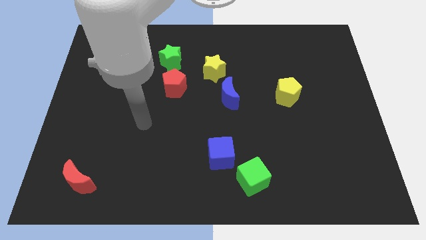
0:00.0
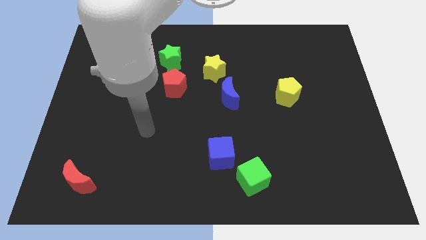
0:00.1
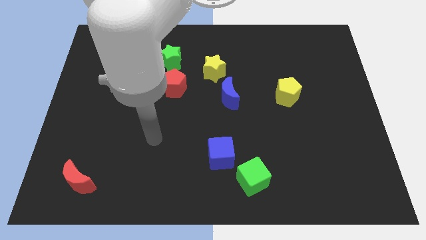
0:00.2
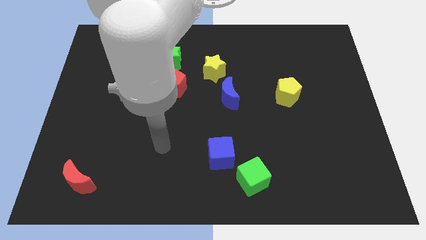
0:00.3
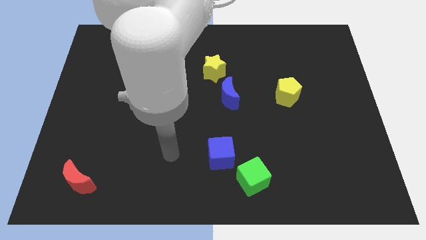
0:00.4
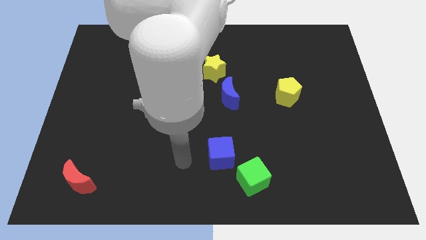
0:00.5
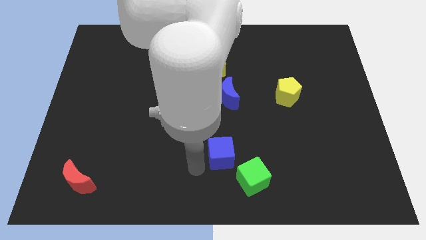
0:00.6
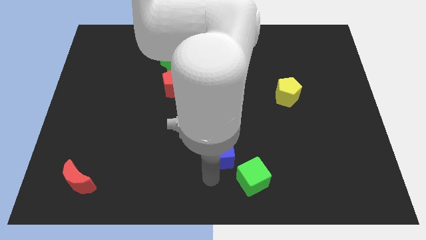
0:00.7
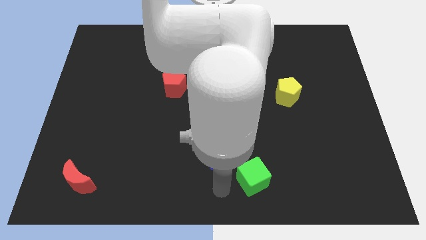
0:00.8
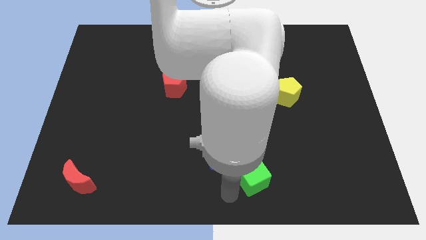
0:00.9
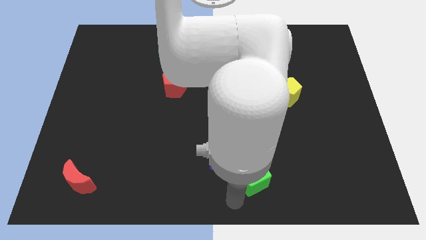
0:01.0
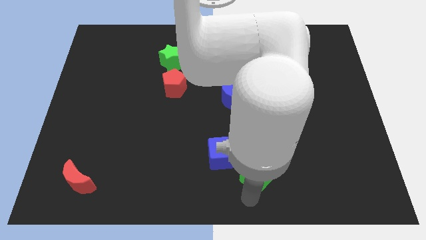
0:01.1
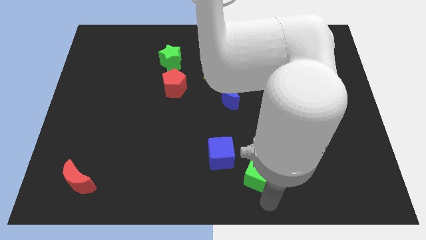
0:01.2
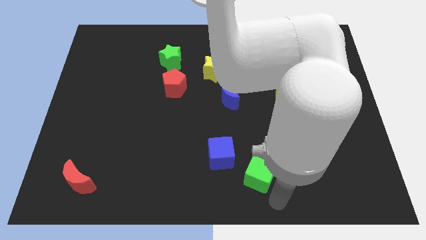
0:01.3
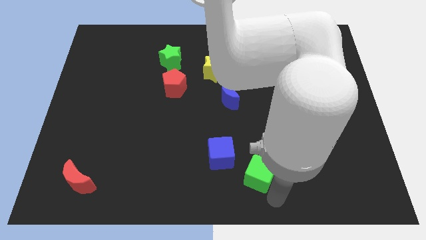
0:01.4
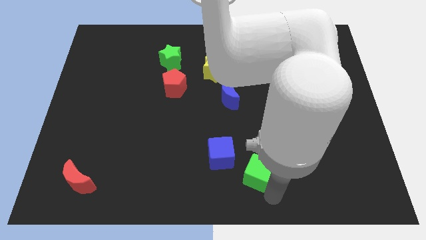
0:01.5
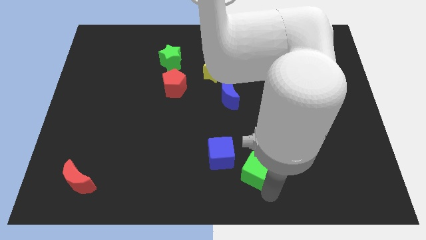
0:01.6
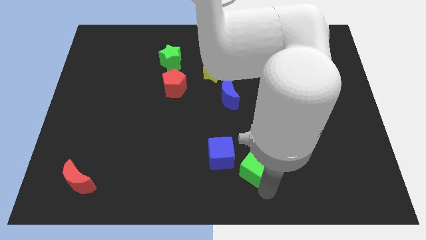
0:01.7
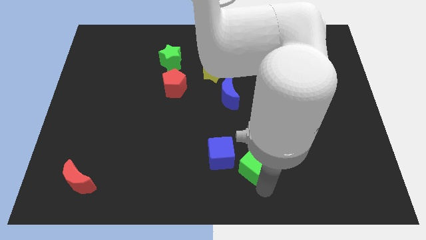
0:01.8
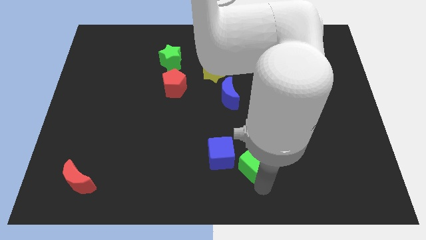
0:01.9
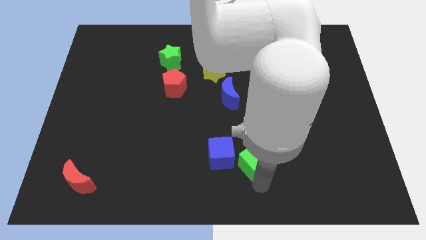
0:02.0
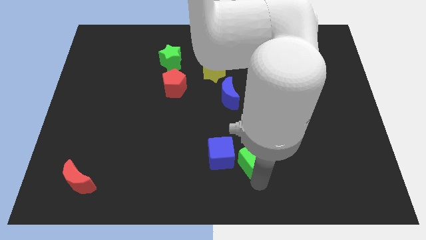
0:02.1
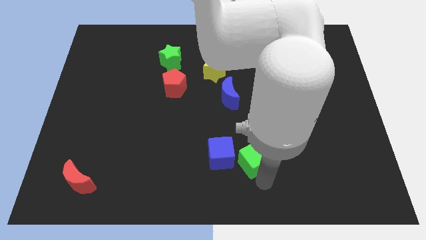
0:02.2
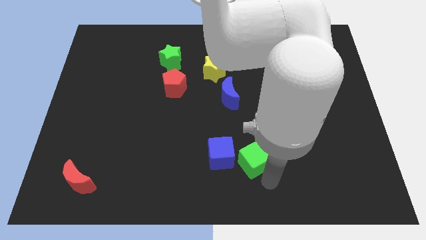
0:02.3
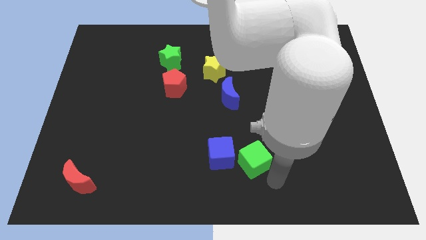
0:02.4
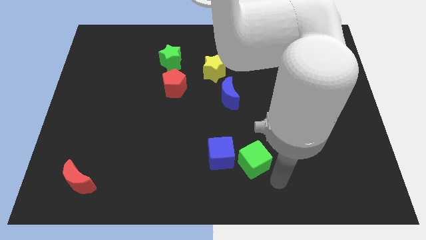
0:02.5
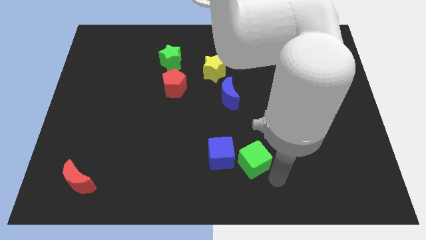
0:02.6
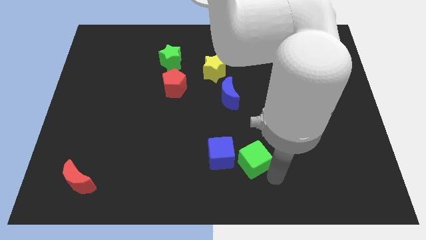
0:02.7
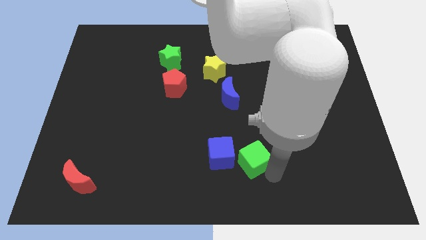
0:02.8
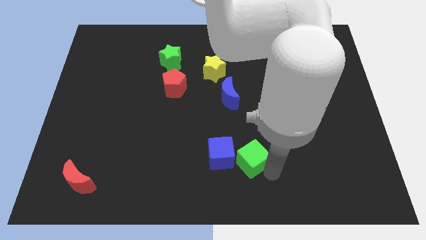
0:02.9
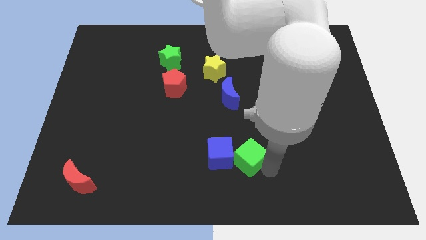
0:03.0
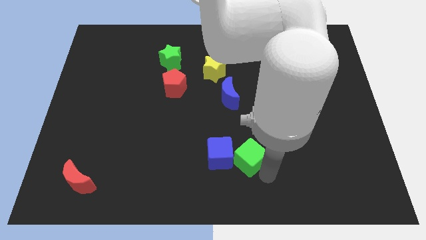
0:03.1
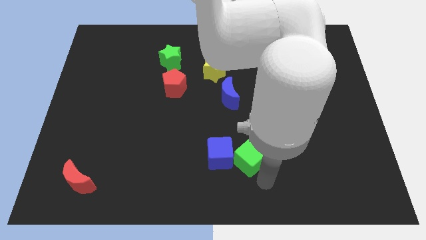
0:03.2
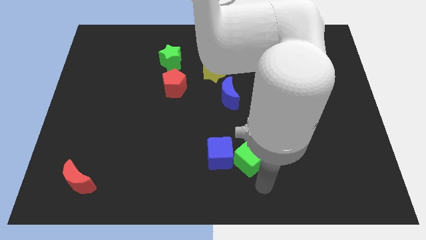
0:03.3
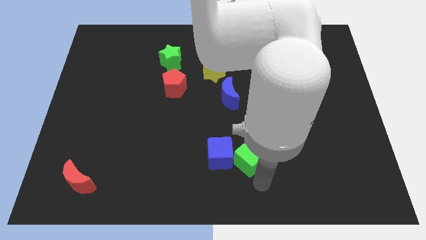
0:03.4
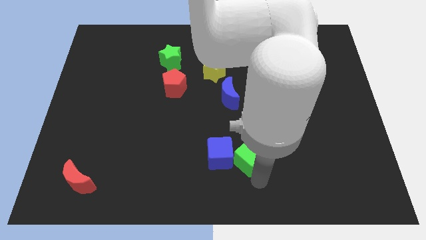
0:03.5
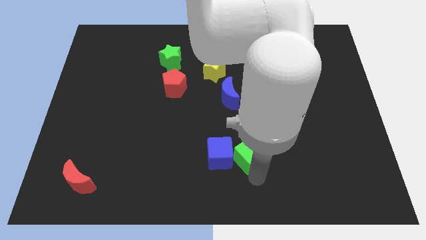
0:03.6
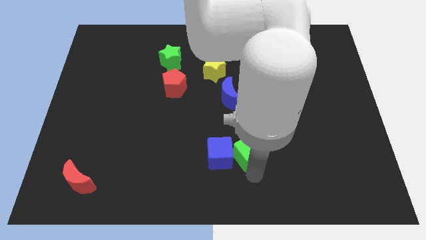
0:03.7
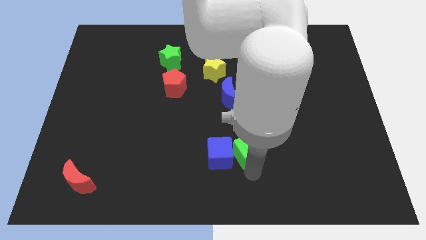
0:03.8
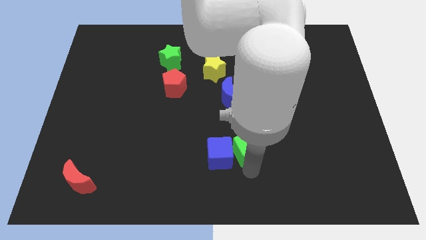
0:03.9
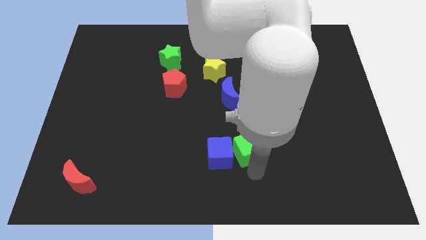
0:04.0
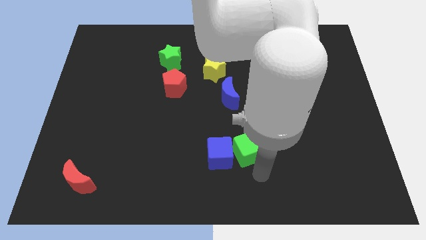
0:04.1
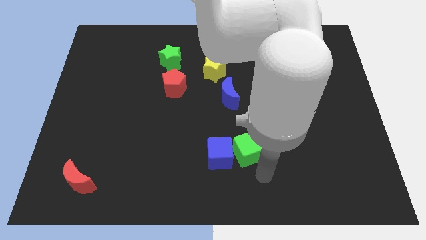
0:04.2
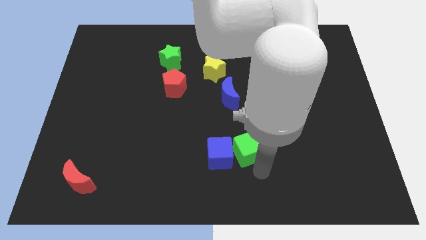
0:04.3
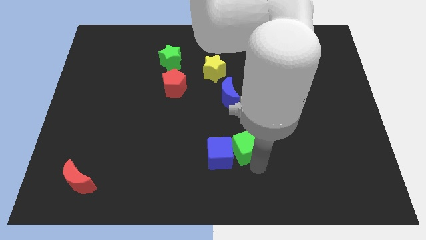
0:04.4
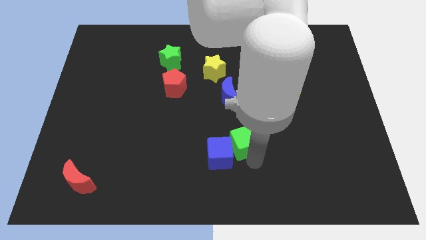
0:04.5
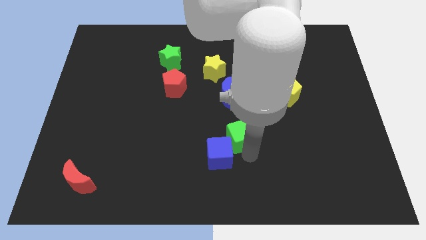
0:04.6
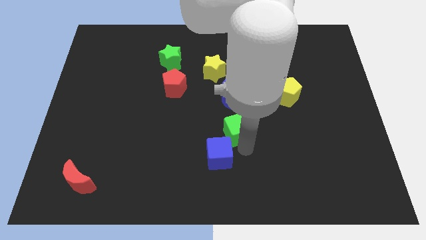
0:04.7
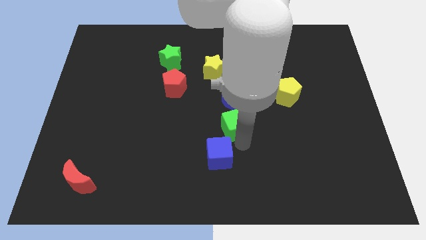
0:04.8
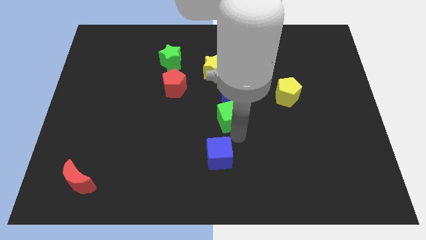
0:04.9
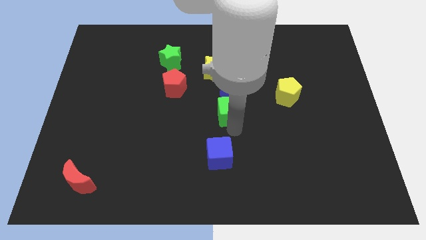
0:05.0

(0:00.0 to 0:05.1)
put the green cube next to the blue moon

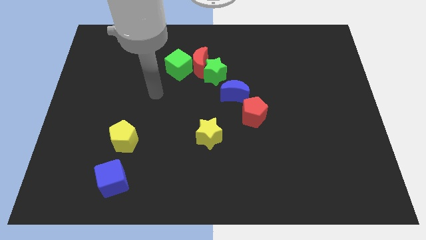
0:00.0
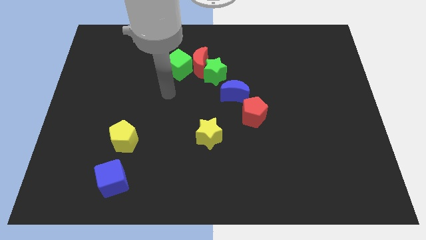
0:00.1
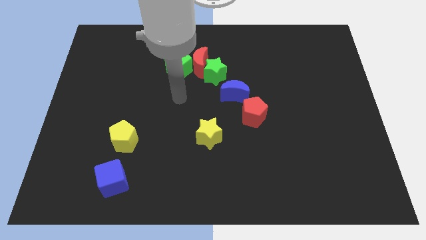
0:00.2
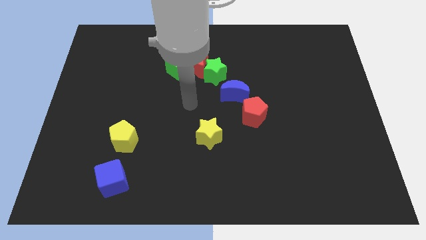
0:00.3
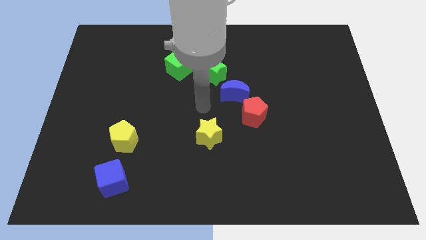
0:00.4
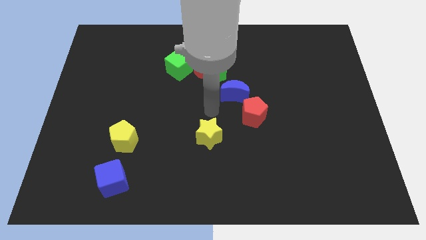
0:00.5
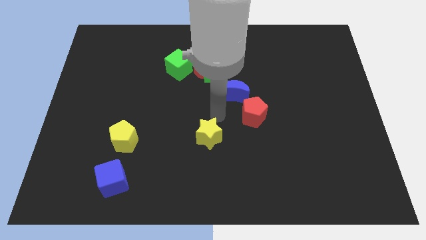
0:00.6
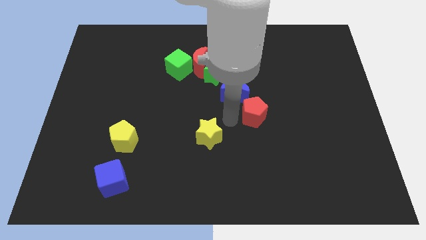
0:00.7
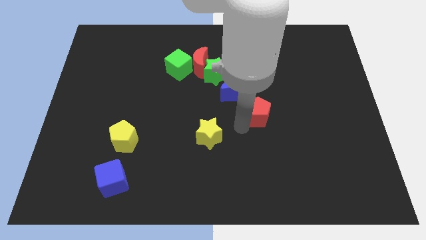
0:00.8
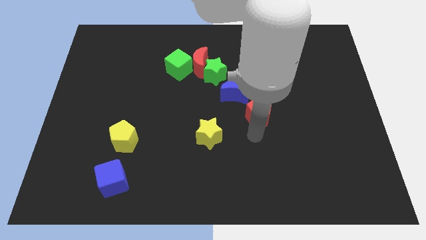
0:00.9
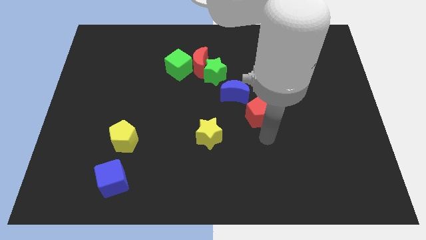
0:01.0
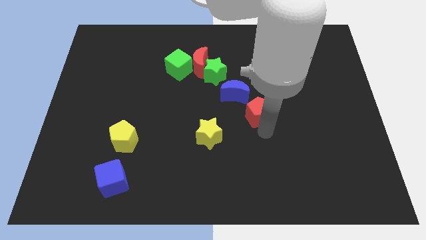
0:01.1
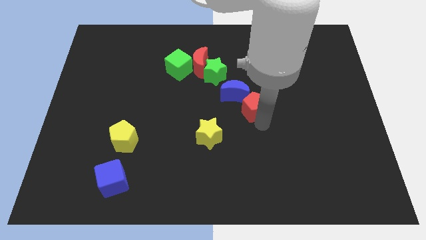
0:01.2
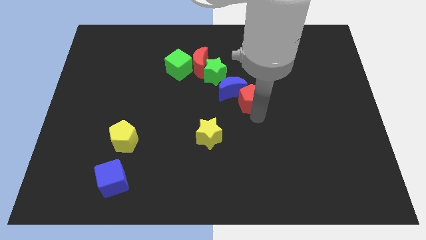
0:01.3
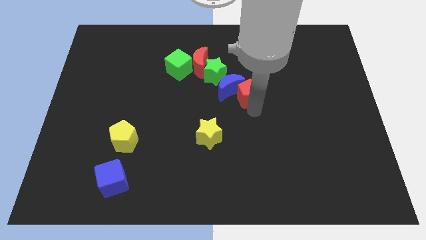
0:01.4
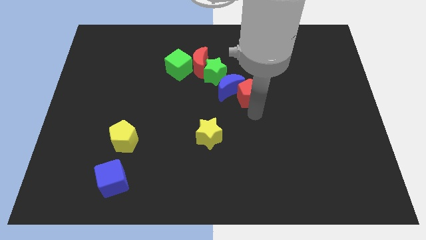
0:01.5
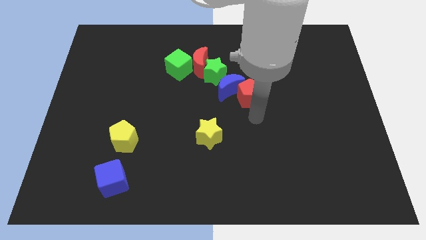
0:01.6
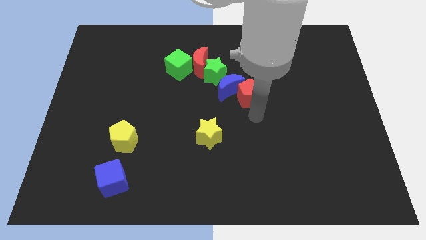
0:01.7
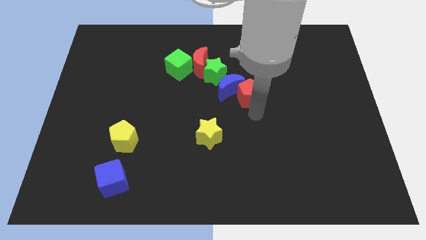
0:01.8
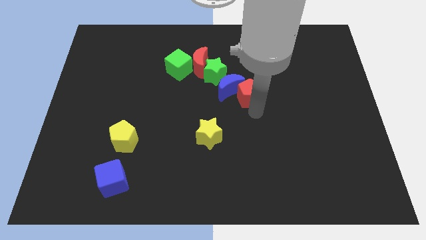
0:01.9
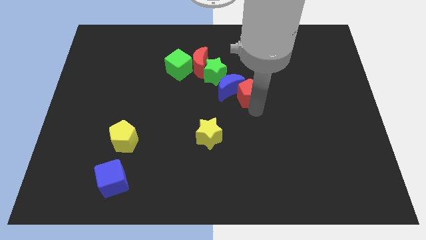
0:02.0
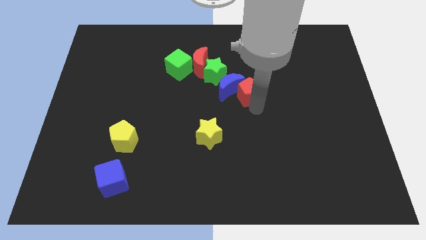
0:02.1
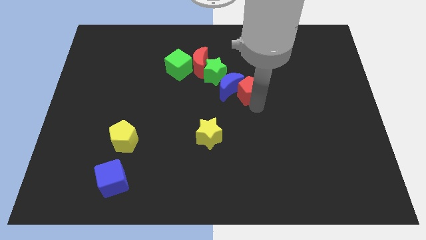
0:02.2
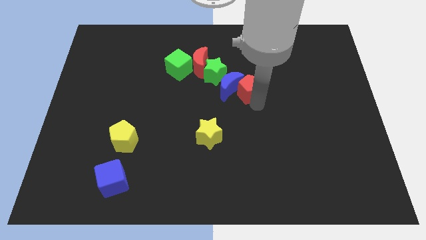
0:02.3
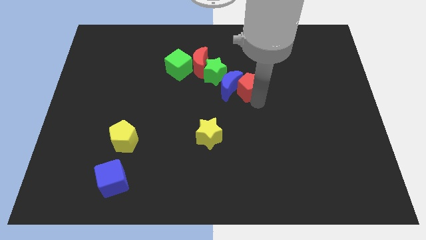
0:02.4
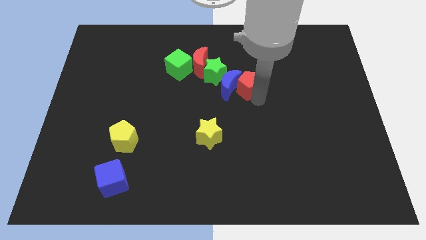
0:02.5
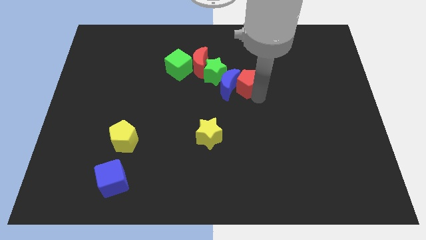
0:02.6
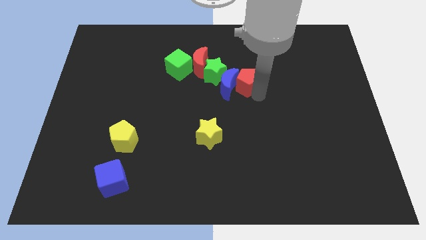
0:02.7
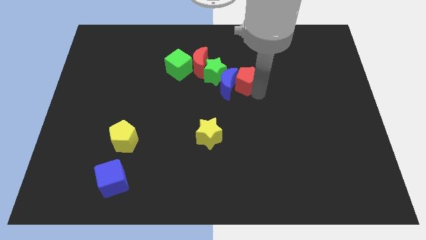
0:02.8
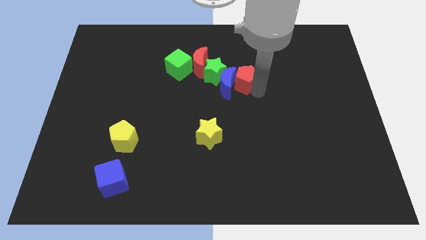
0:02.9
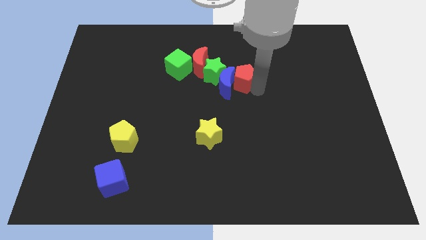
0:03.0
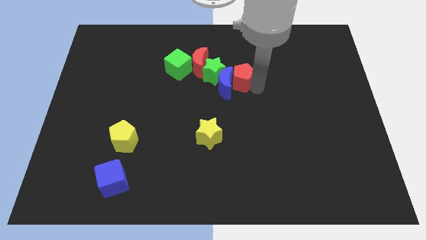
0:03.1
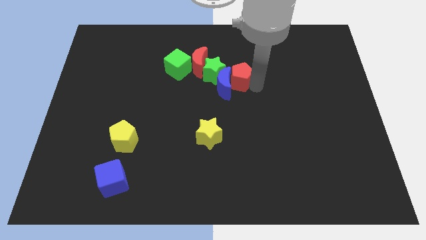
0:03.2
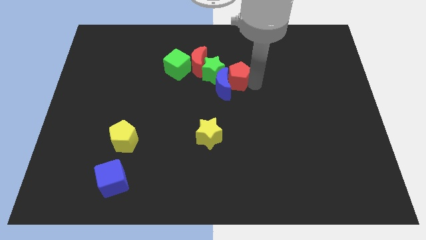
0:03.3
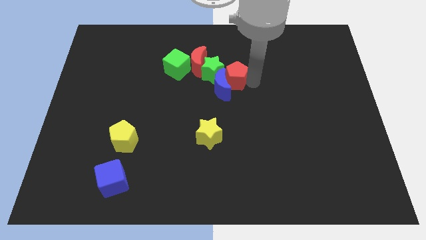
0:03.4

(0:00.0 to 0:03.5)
slide the red pentagon towards the green star
